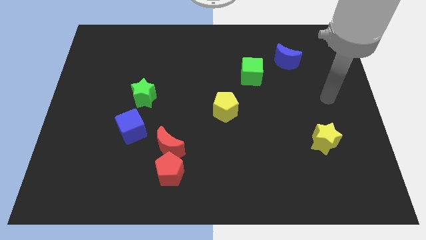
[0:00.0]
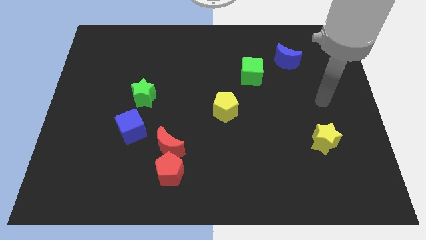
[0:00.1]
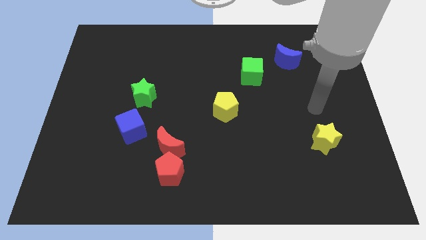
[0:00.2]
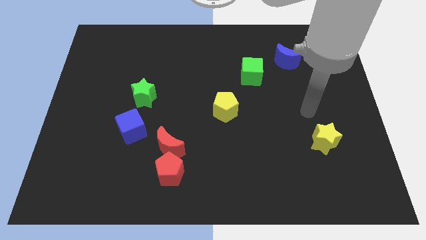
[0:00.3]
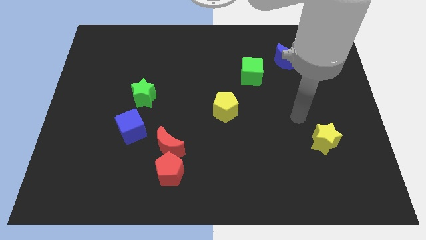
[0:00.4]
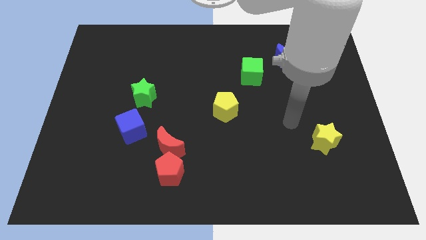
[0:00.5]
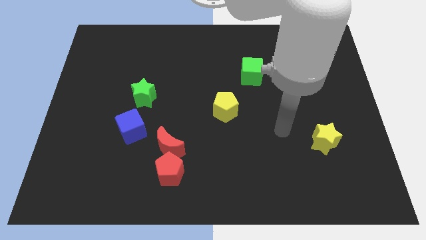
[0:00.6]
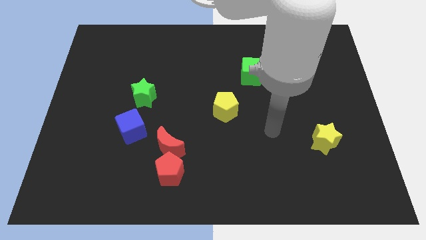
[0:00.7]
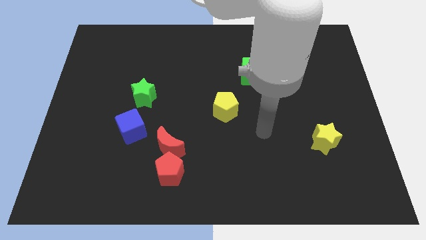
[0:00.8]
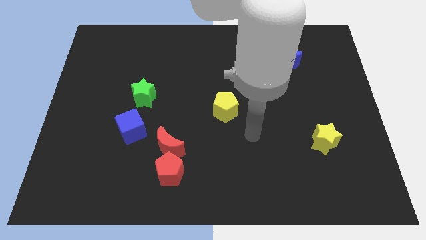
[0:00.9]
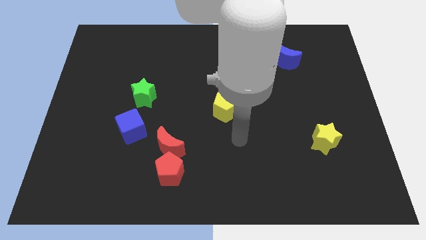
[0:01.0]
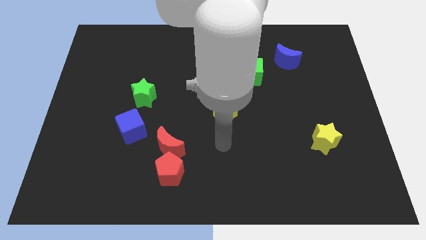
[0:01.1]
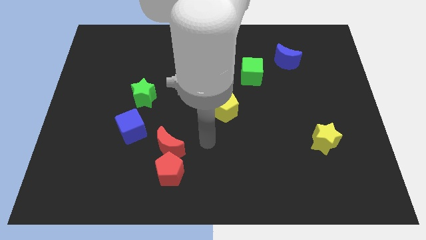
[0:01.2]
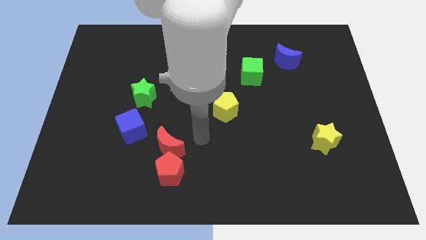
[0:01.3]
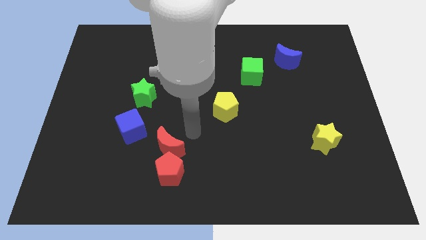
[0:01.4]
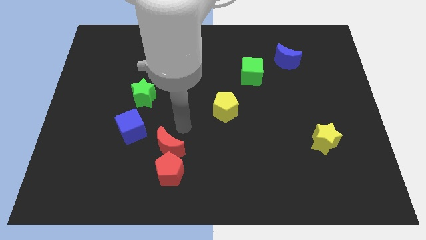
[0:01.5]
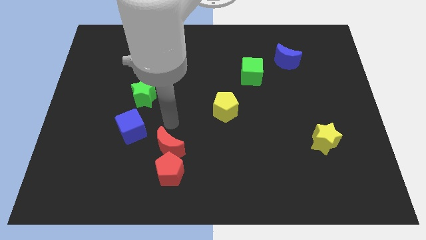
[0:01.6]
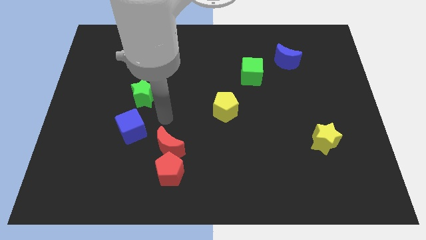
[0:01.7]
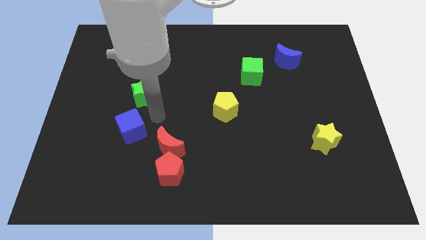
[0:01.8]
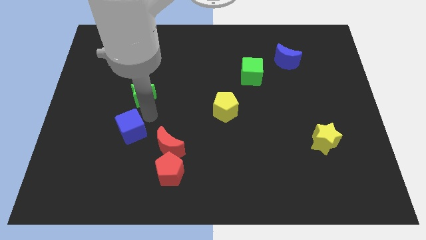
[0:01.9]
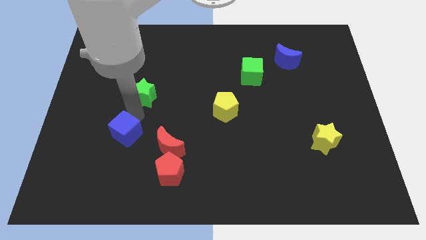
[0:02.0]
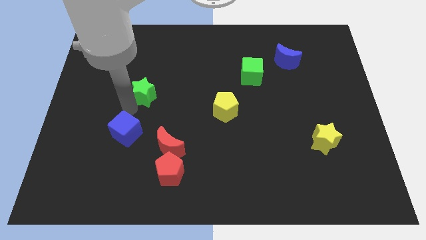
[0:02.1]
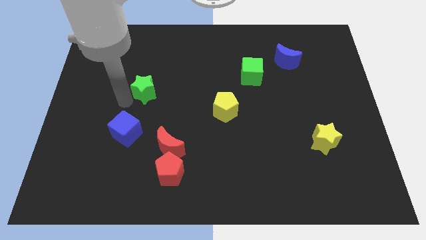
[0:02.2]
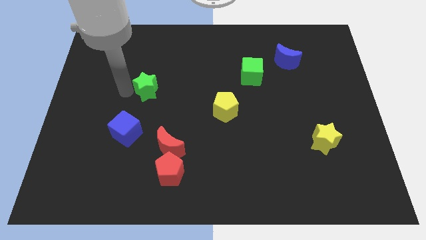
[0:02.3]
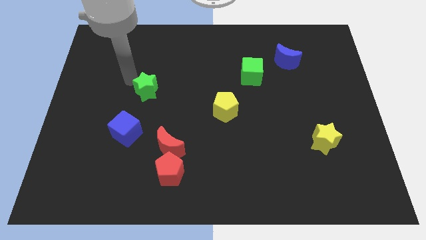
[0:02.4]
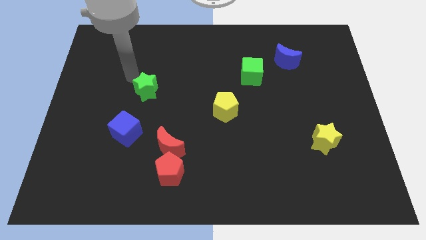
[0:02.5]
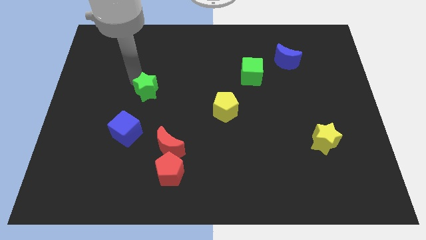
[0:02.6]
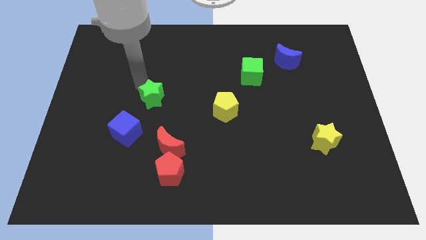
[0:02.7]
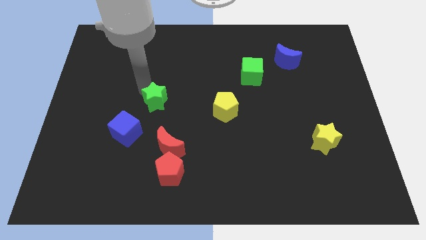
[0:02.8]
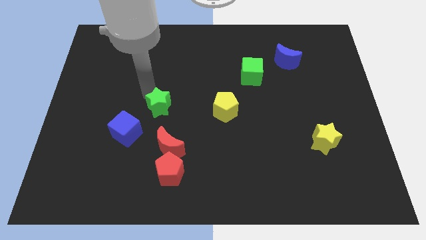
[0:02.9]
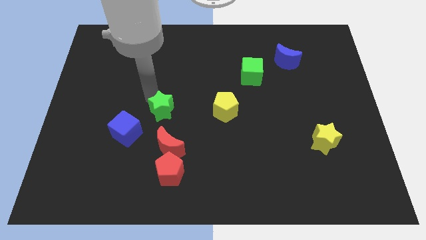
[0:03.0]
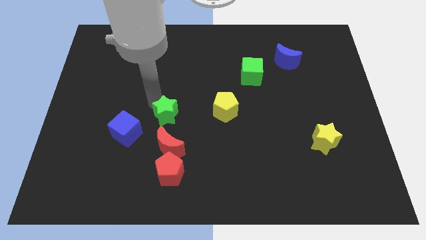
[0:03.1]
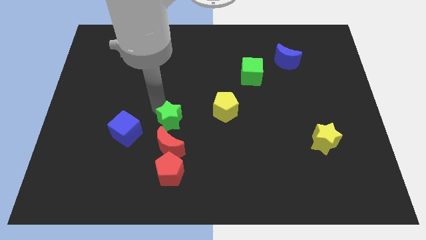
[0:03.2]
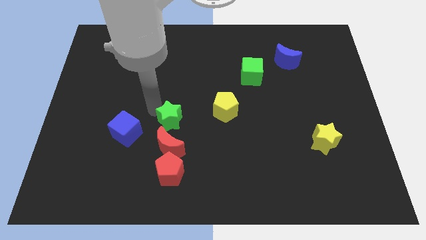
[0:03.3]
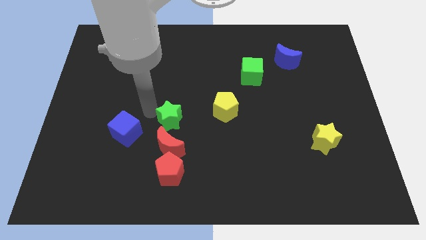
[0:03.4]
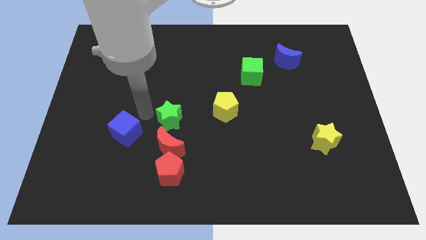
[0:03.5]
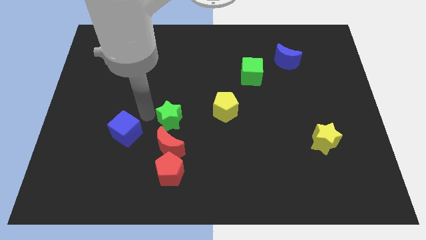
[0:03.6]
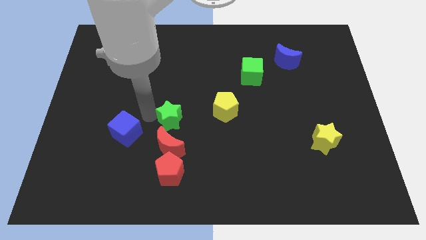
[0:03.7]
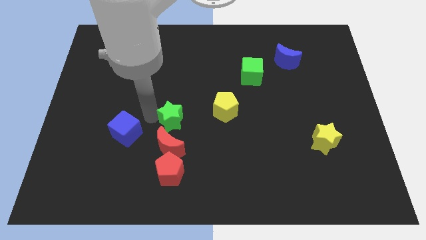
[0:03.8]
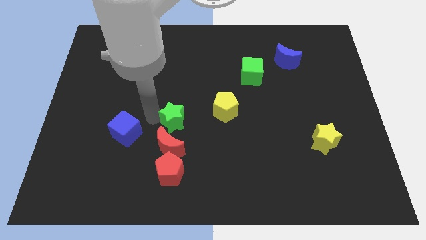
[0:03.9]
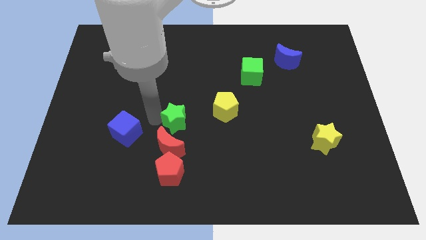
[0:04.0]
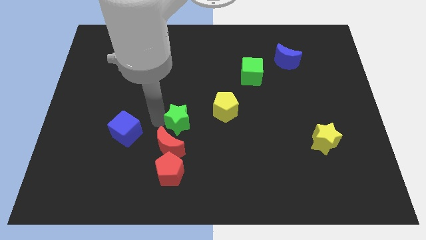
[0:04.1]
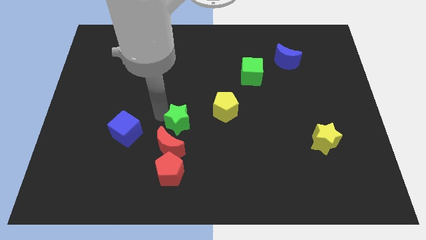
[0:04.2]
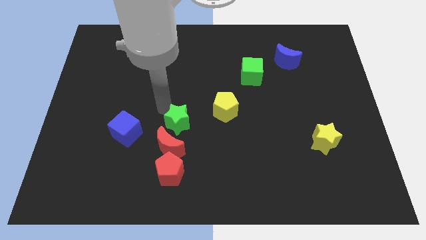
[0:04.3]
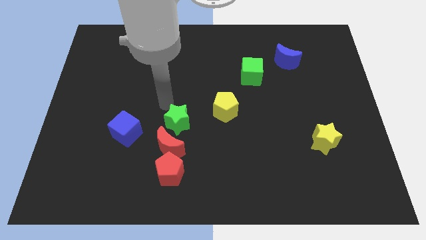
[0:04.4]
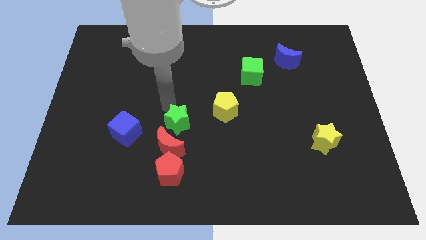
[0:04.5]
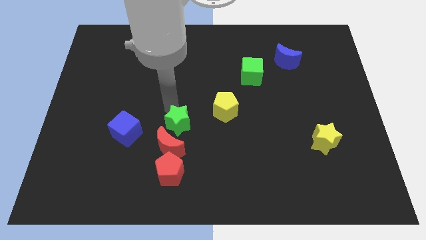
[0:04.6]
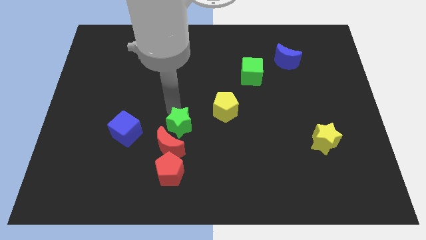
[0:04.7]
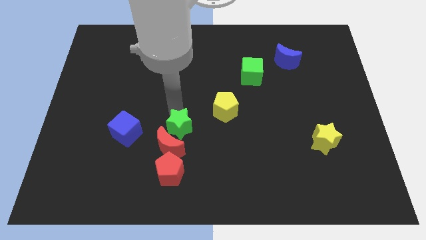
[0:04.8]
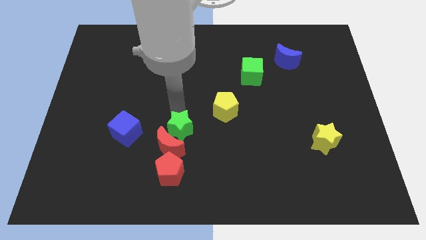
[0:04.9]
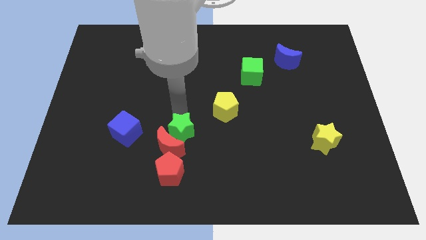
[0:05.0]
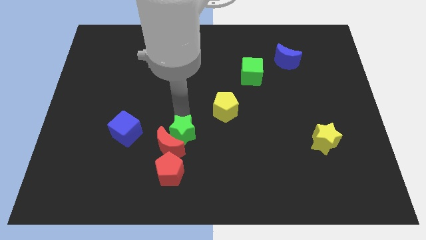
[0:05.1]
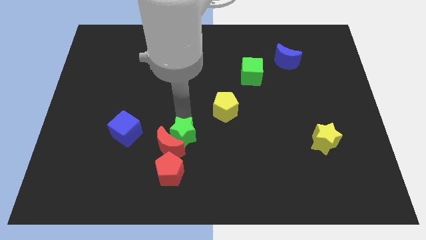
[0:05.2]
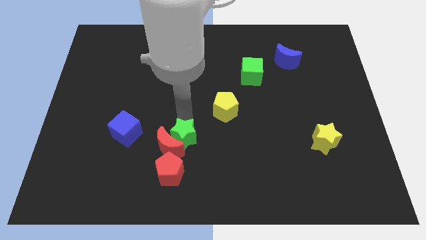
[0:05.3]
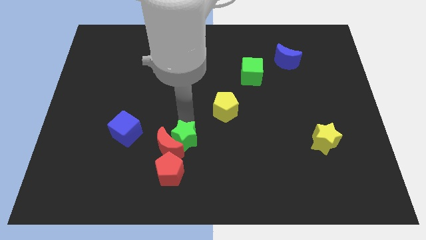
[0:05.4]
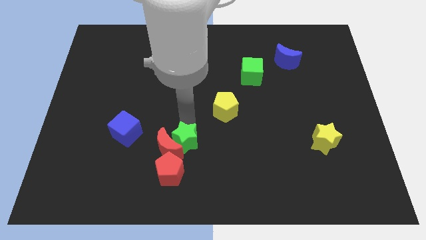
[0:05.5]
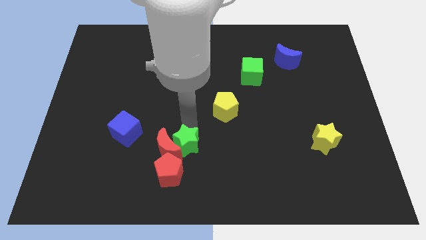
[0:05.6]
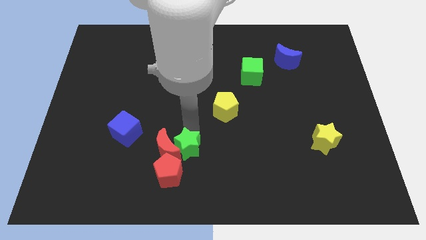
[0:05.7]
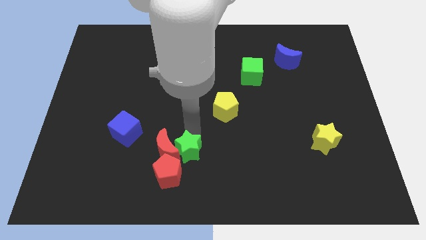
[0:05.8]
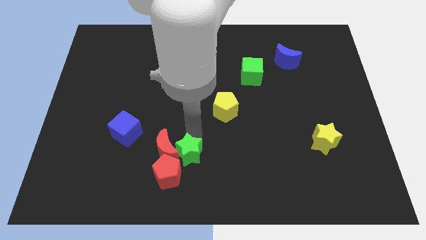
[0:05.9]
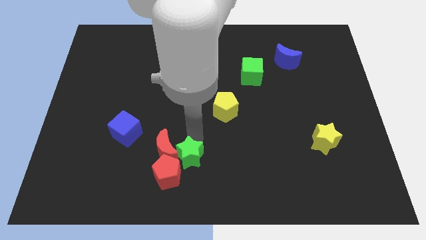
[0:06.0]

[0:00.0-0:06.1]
move the green star to the bottom side

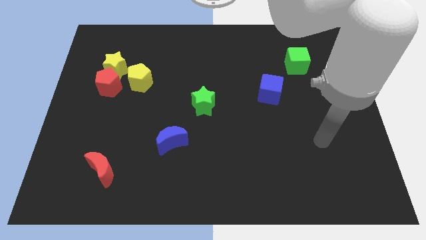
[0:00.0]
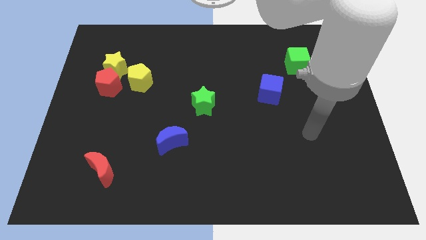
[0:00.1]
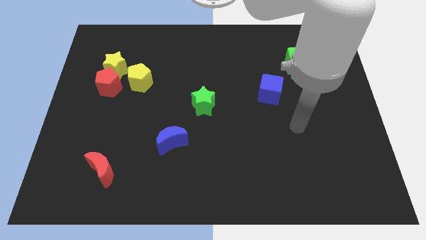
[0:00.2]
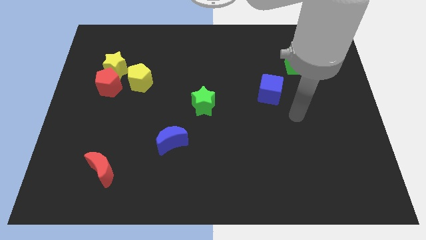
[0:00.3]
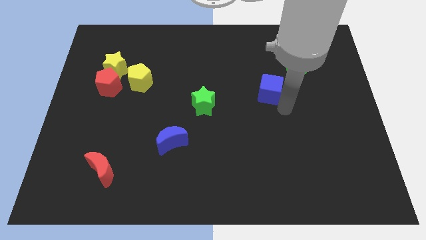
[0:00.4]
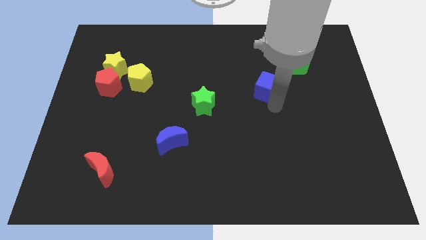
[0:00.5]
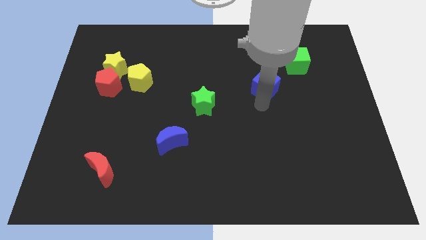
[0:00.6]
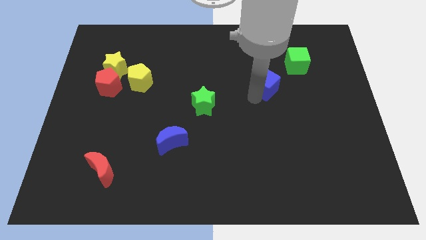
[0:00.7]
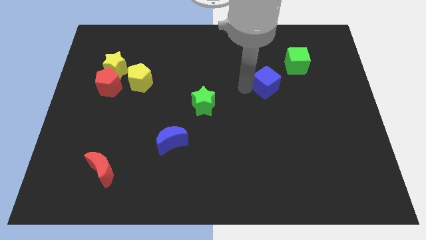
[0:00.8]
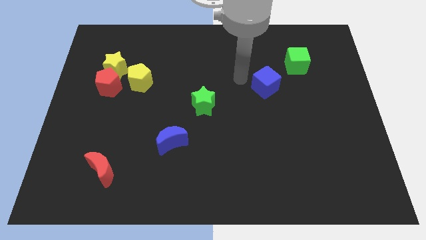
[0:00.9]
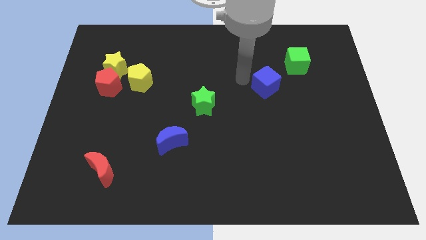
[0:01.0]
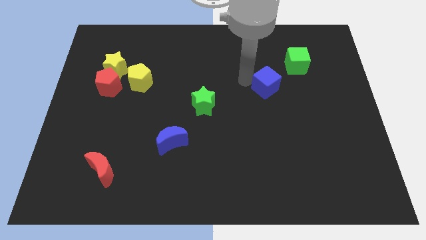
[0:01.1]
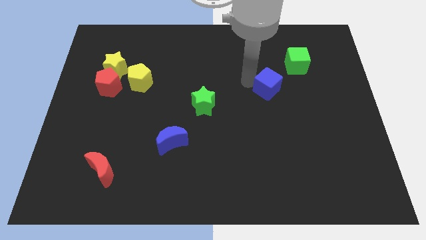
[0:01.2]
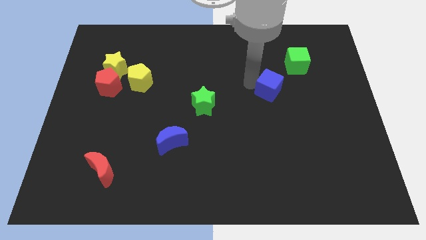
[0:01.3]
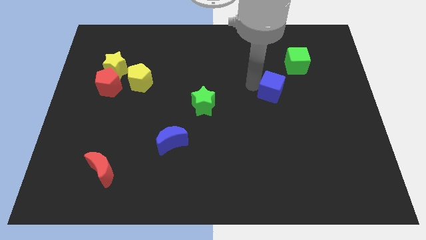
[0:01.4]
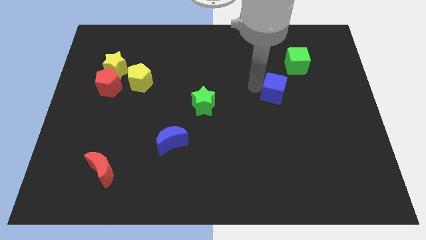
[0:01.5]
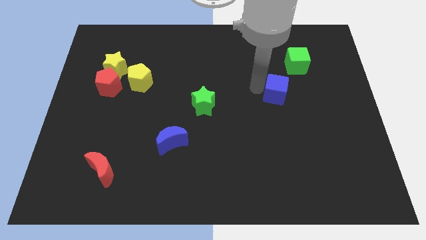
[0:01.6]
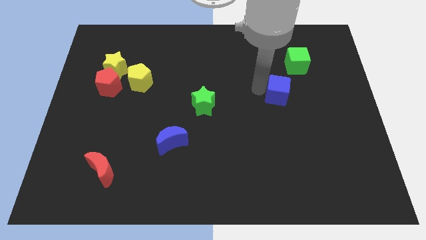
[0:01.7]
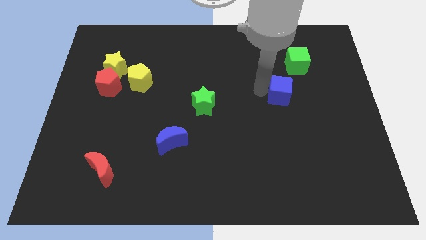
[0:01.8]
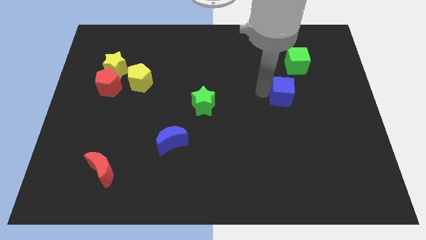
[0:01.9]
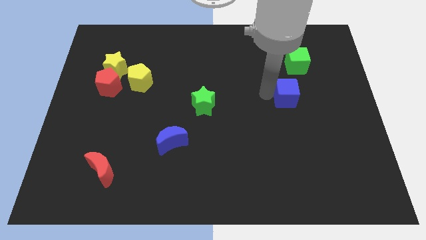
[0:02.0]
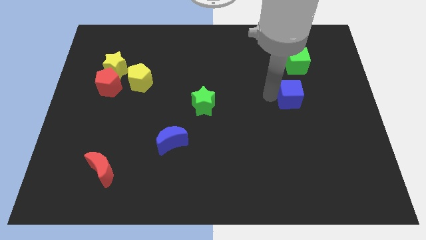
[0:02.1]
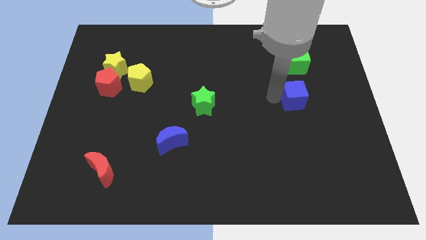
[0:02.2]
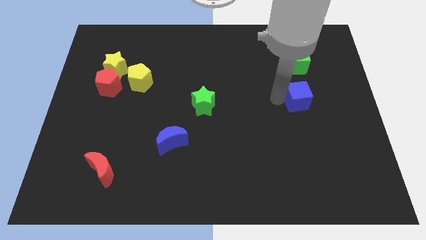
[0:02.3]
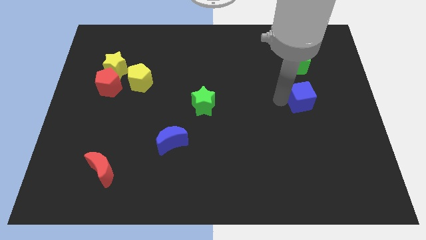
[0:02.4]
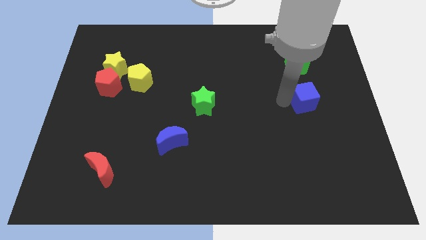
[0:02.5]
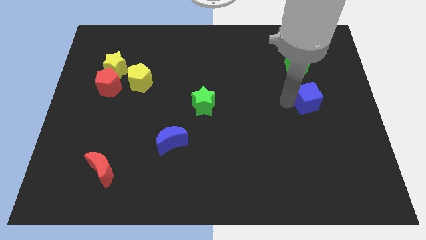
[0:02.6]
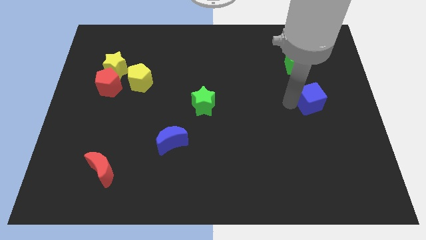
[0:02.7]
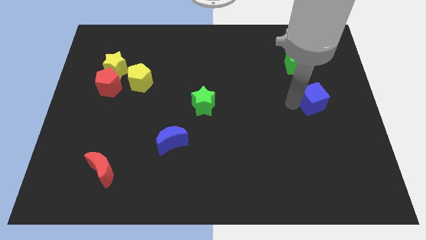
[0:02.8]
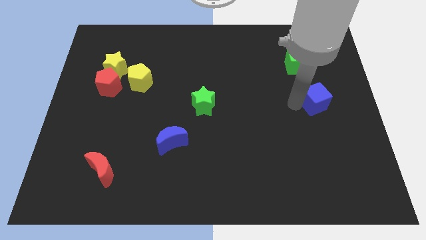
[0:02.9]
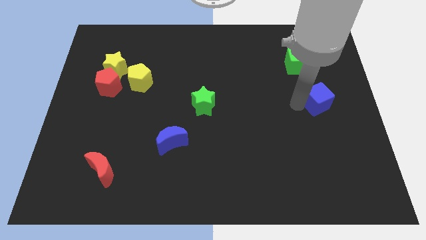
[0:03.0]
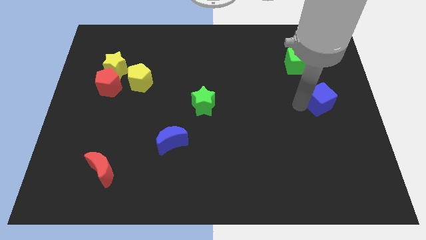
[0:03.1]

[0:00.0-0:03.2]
push the blue cube to the right side
